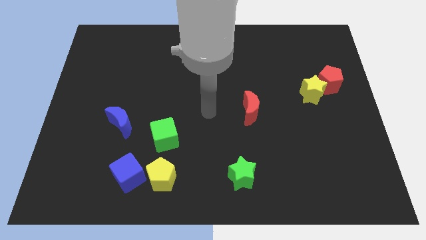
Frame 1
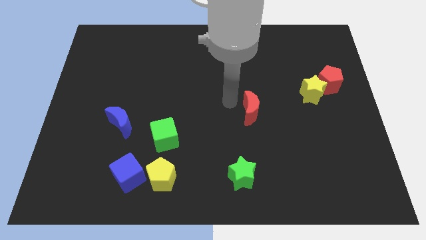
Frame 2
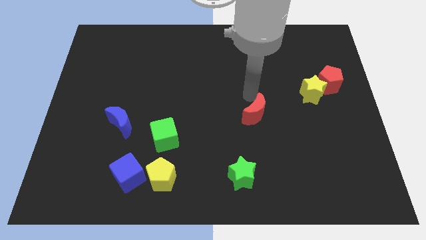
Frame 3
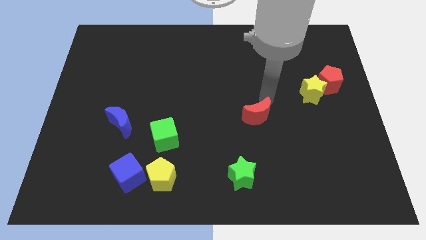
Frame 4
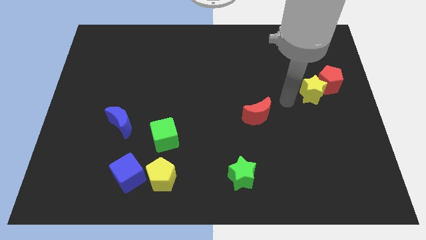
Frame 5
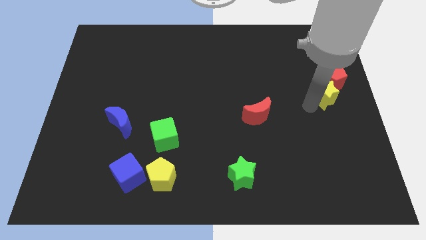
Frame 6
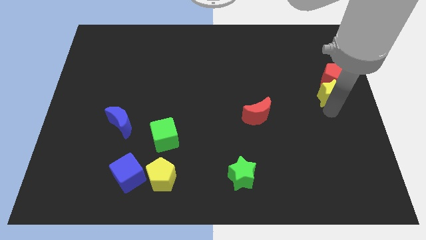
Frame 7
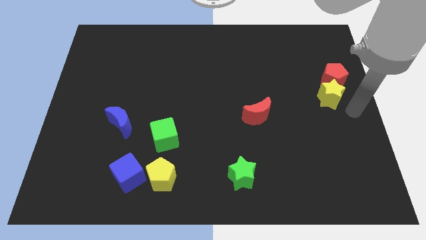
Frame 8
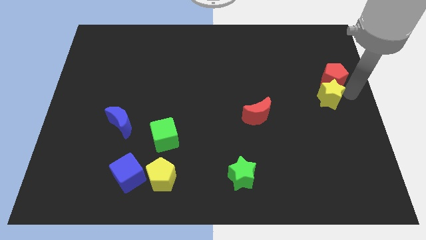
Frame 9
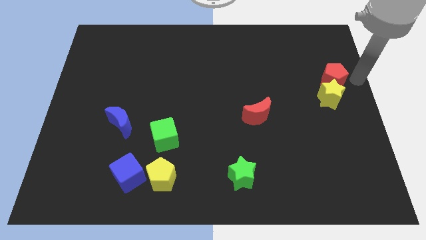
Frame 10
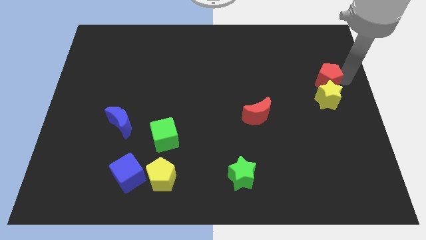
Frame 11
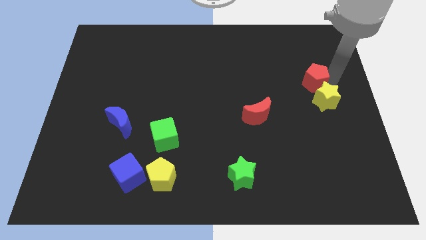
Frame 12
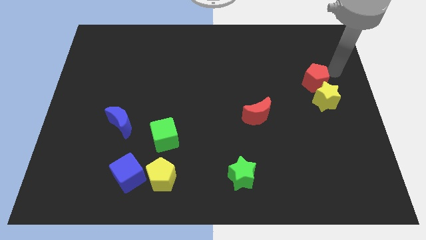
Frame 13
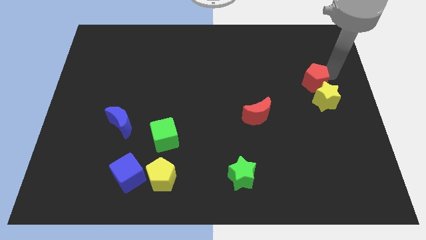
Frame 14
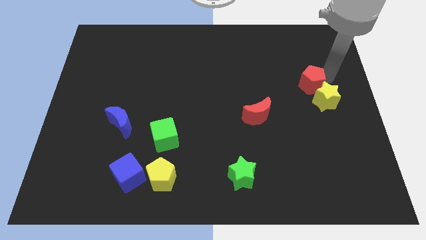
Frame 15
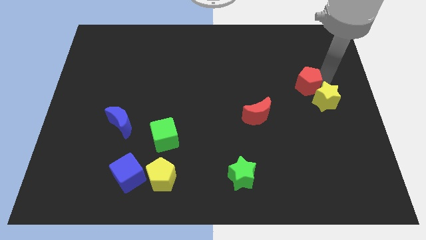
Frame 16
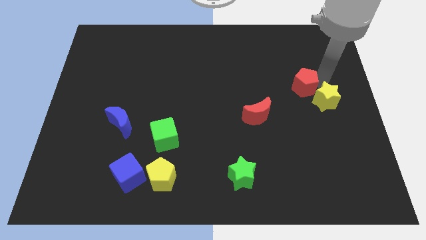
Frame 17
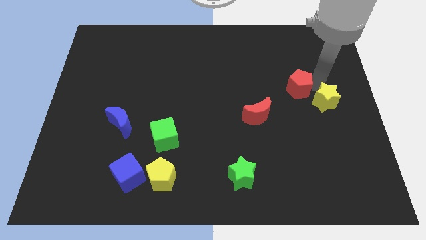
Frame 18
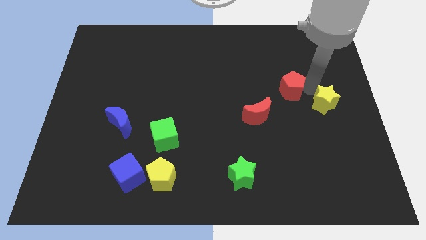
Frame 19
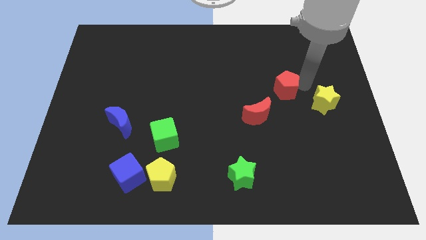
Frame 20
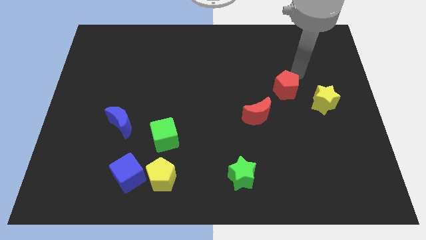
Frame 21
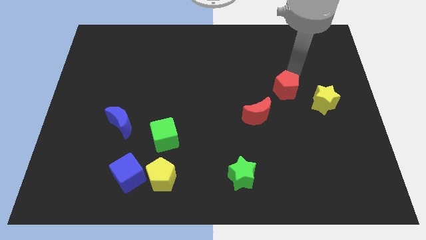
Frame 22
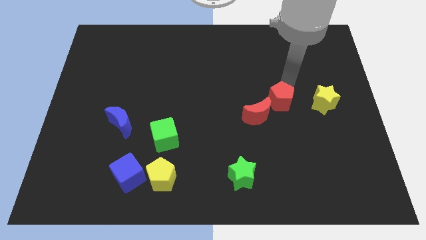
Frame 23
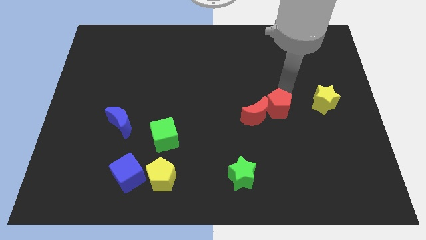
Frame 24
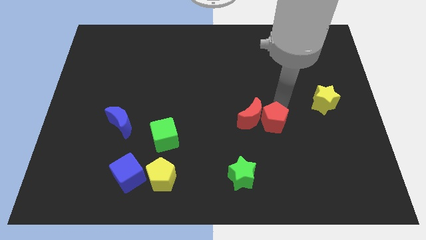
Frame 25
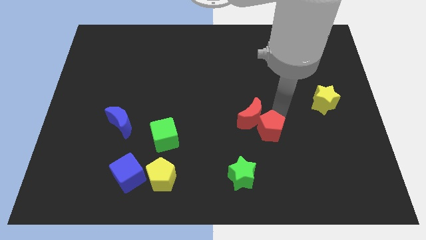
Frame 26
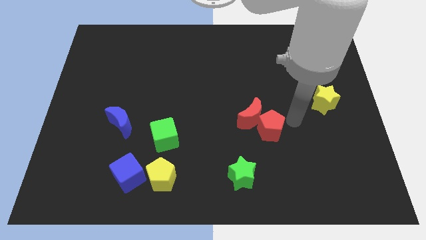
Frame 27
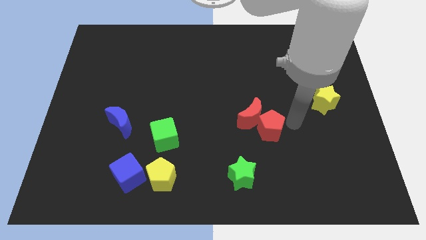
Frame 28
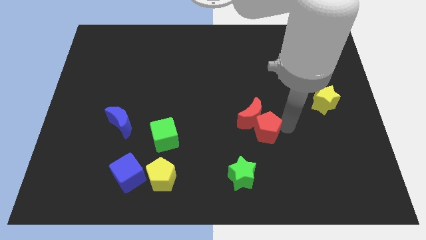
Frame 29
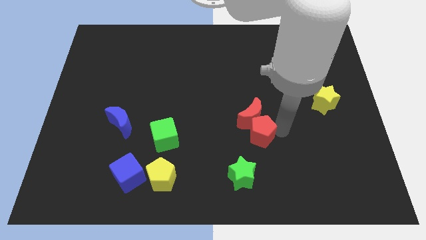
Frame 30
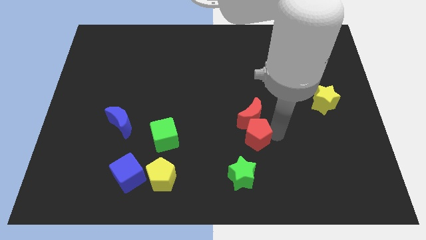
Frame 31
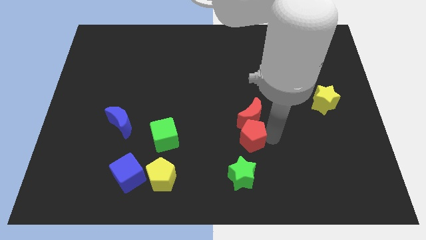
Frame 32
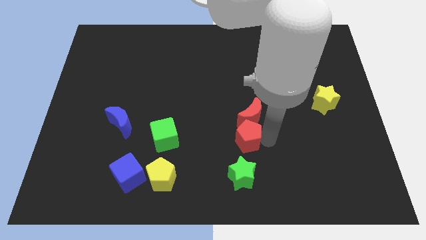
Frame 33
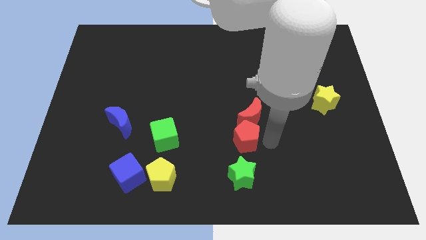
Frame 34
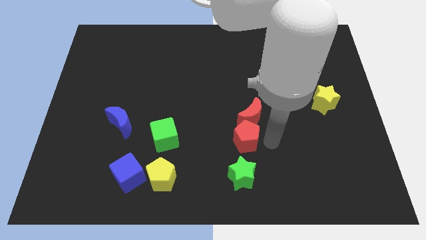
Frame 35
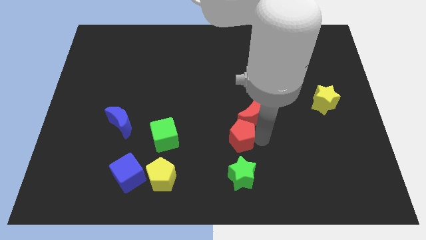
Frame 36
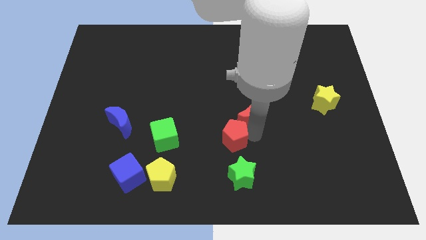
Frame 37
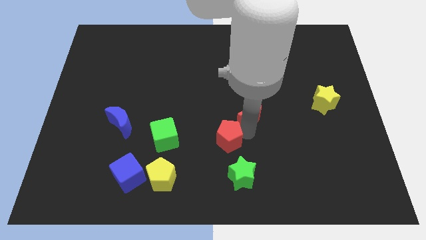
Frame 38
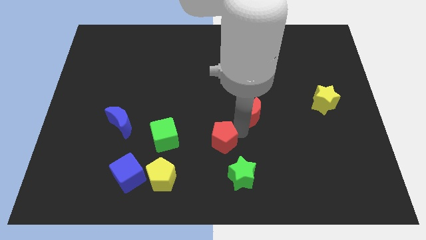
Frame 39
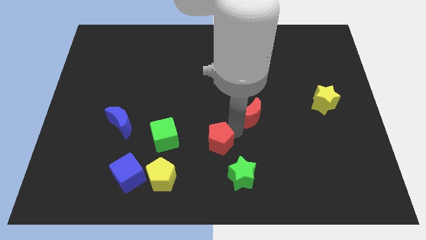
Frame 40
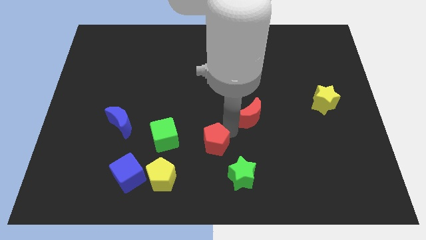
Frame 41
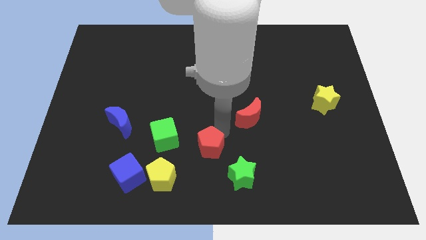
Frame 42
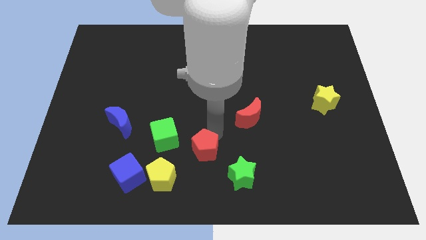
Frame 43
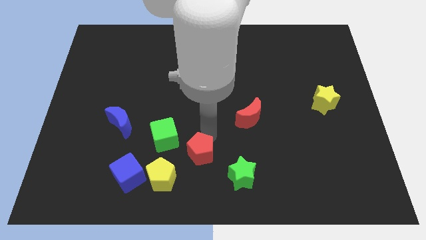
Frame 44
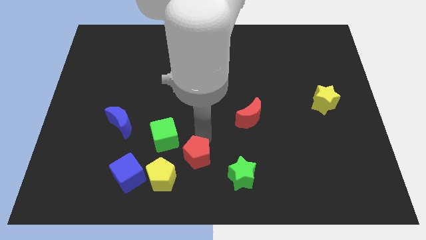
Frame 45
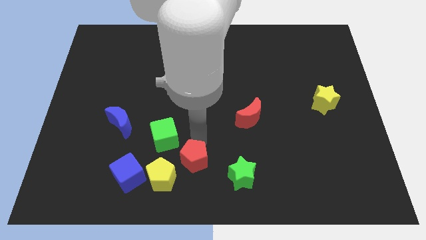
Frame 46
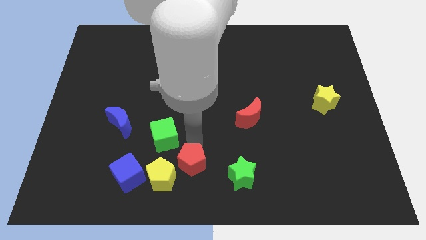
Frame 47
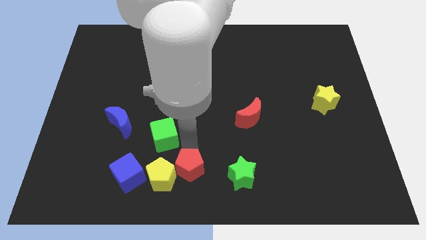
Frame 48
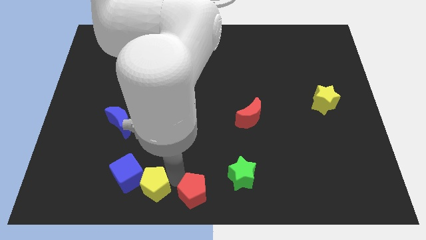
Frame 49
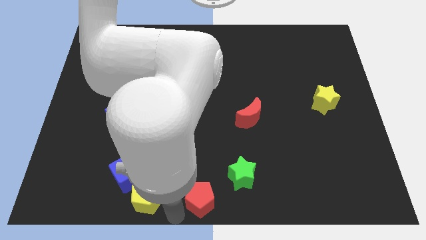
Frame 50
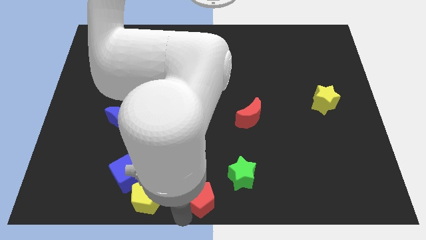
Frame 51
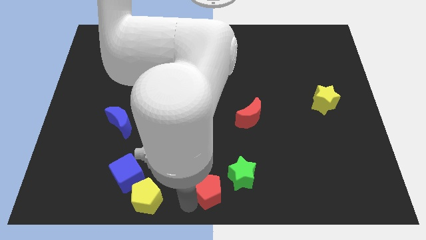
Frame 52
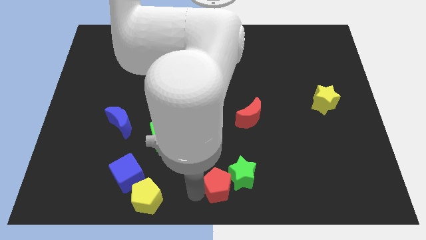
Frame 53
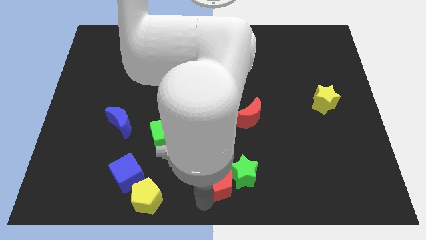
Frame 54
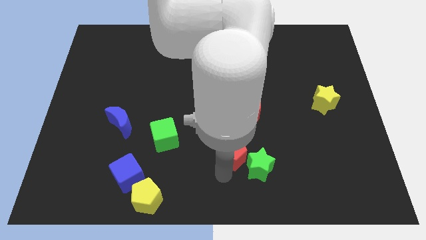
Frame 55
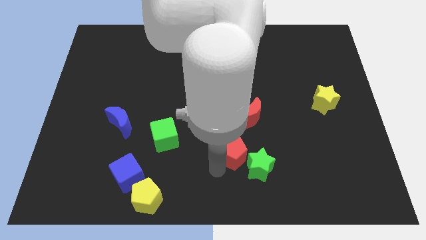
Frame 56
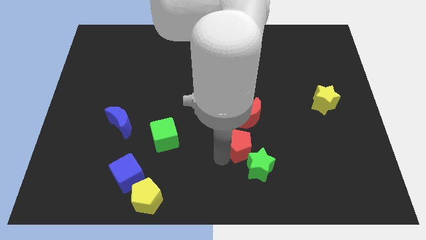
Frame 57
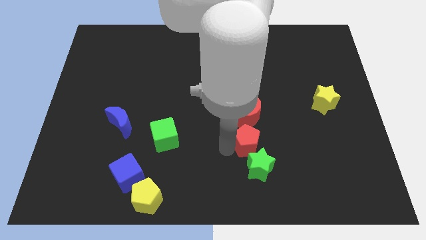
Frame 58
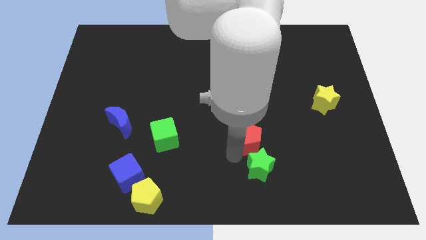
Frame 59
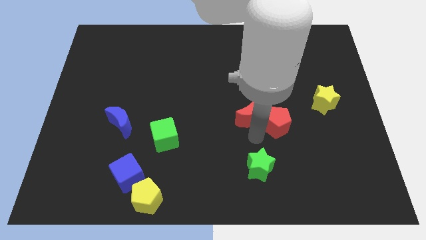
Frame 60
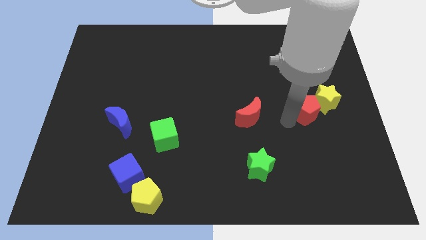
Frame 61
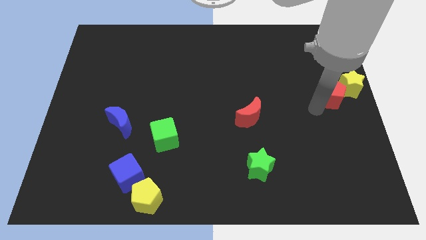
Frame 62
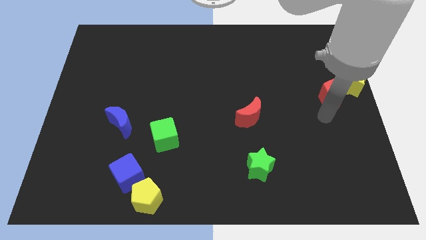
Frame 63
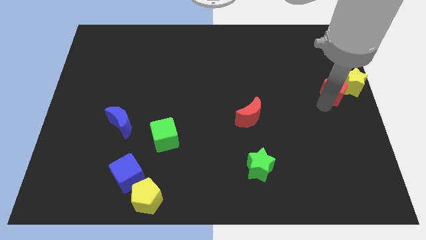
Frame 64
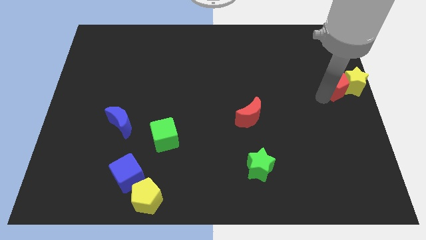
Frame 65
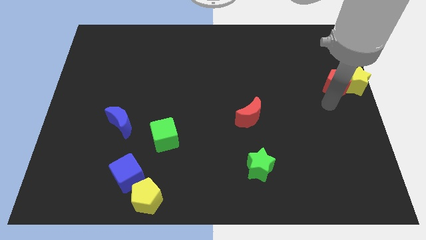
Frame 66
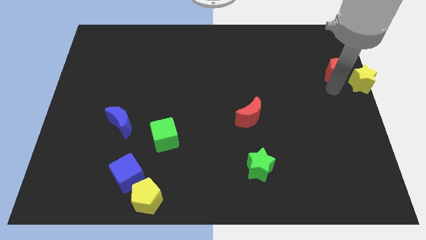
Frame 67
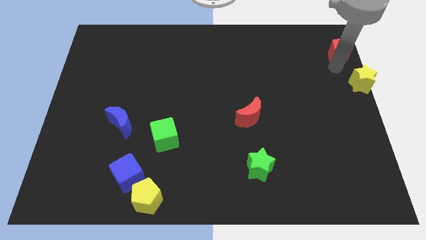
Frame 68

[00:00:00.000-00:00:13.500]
slide the red pentagon to the upper right corner

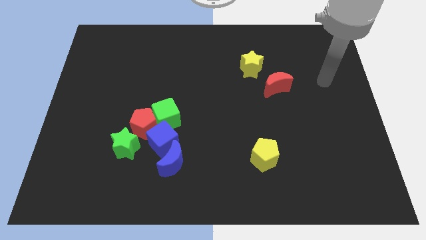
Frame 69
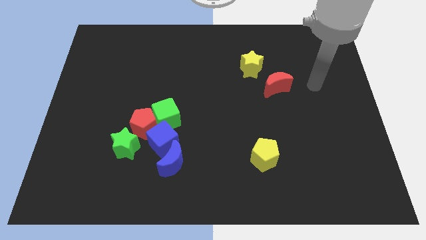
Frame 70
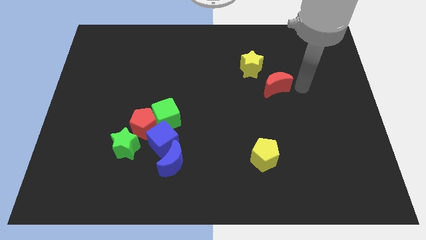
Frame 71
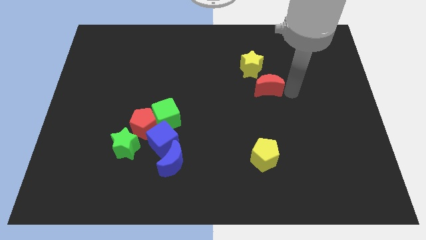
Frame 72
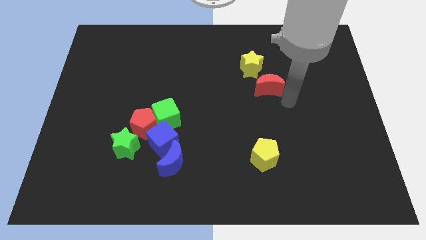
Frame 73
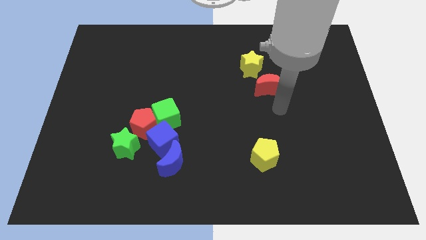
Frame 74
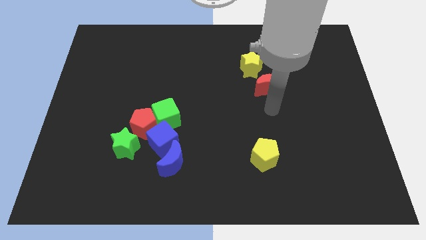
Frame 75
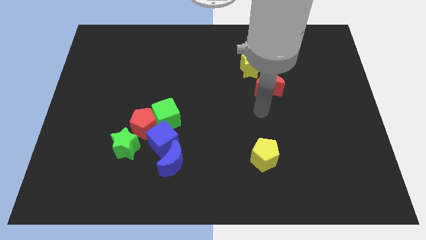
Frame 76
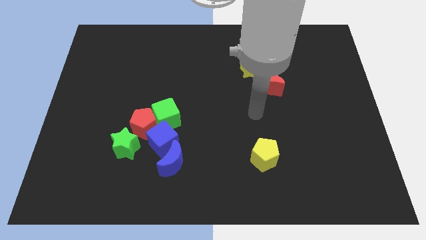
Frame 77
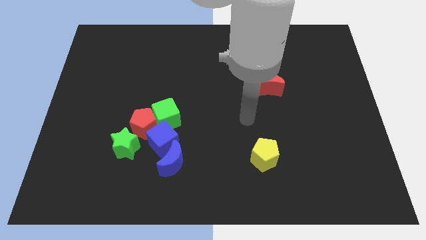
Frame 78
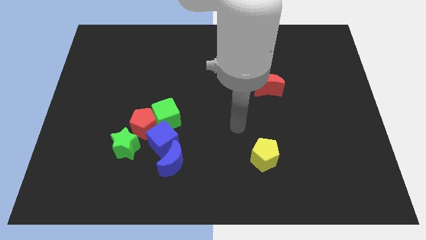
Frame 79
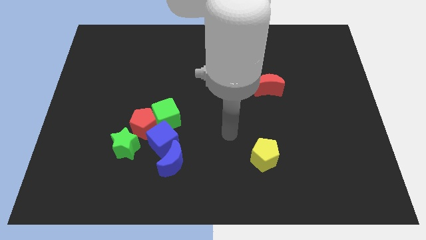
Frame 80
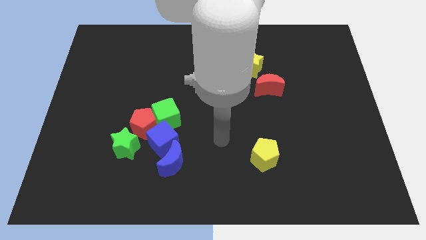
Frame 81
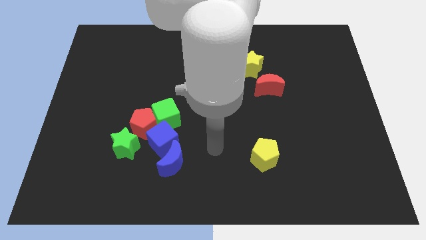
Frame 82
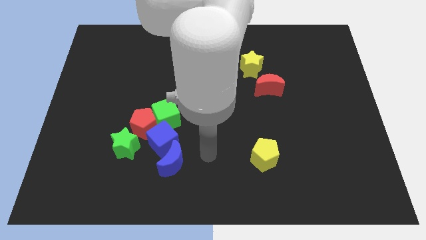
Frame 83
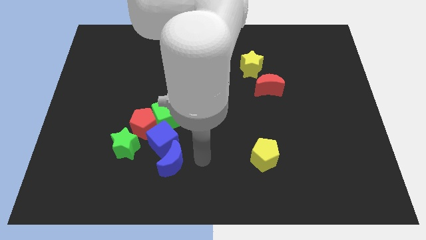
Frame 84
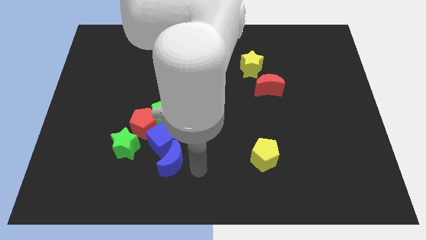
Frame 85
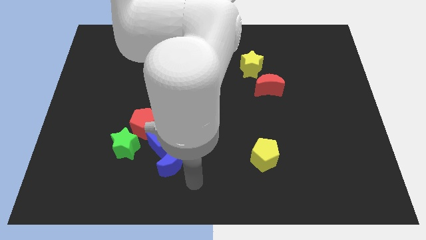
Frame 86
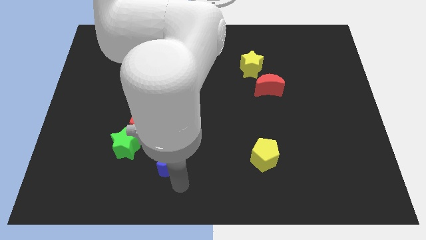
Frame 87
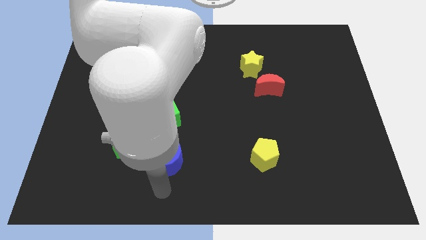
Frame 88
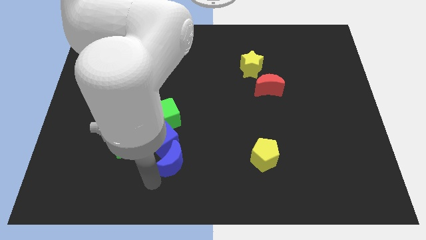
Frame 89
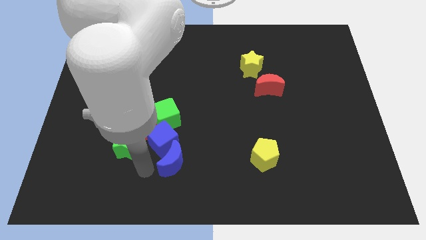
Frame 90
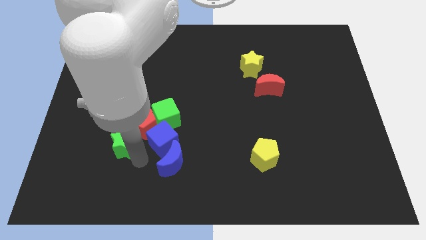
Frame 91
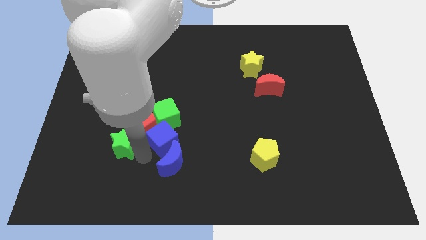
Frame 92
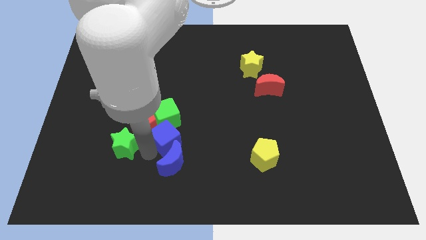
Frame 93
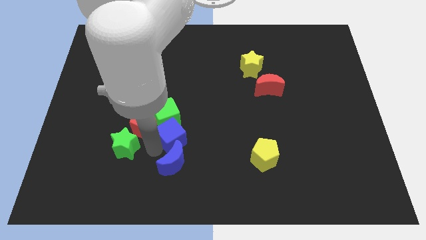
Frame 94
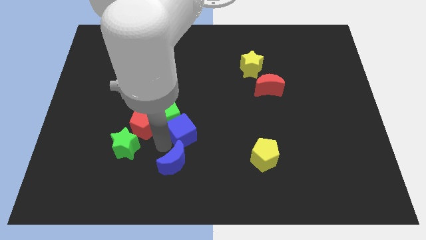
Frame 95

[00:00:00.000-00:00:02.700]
push the blue cube to the center of the board
